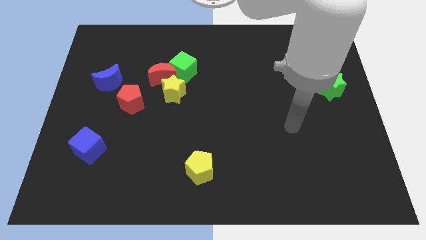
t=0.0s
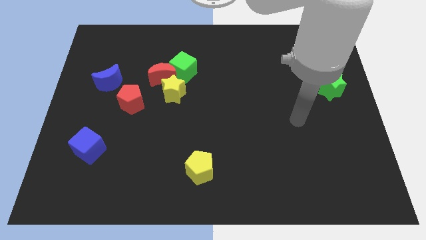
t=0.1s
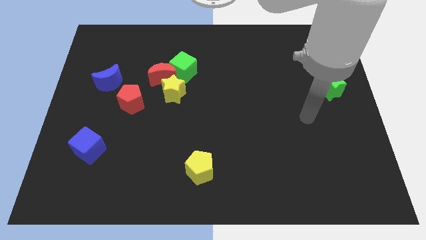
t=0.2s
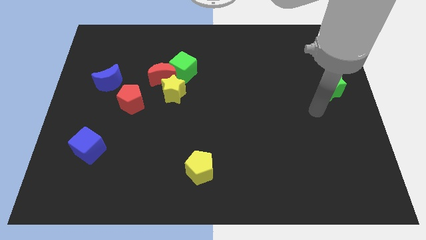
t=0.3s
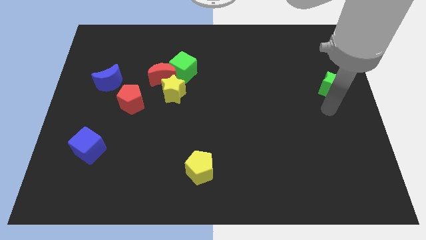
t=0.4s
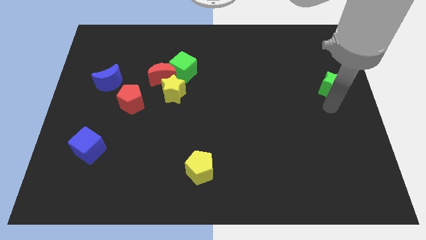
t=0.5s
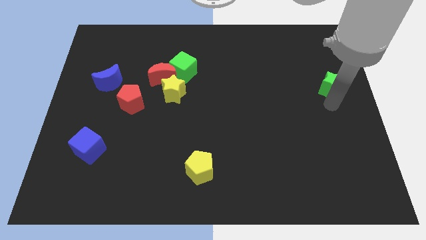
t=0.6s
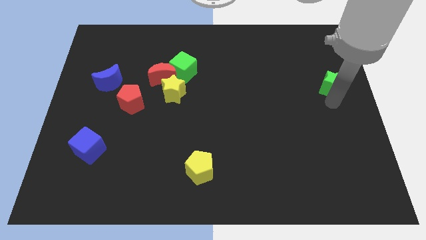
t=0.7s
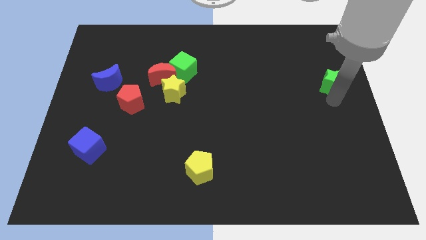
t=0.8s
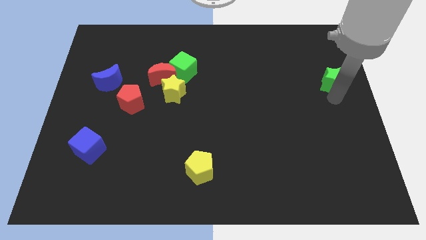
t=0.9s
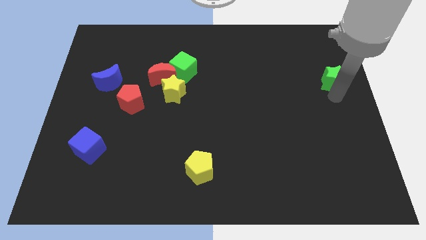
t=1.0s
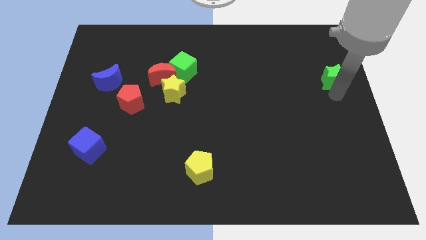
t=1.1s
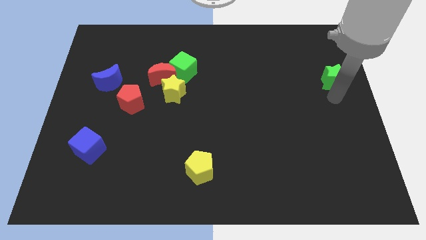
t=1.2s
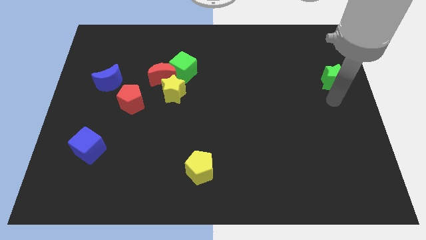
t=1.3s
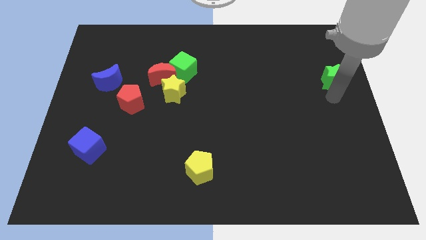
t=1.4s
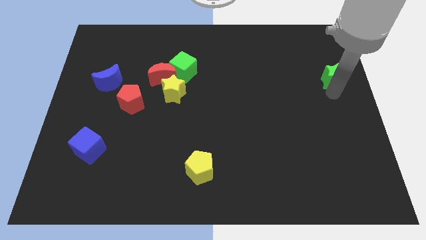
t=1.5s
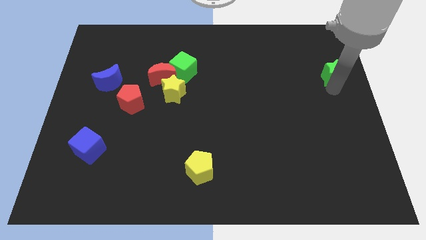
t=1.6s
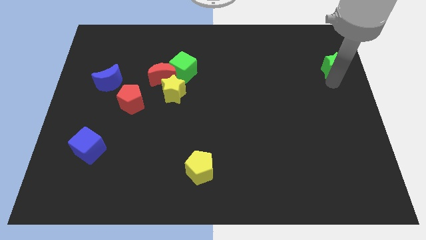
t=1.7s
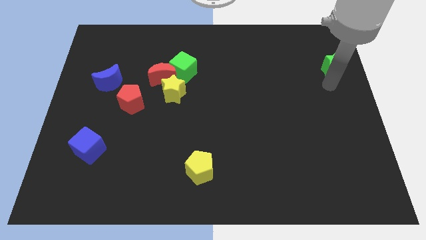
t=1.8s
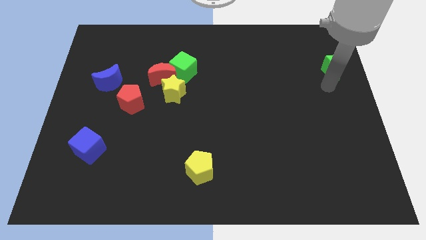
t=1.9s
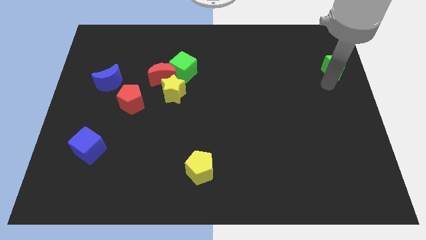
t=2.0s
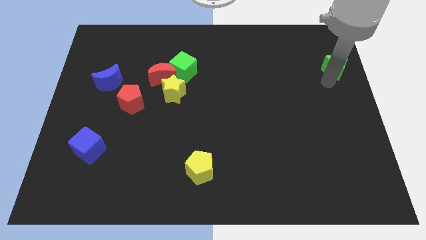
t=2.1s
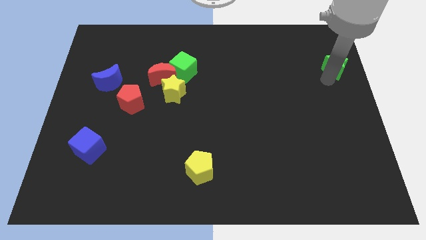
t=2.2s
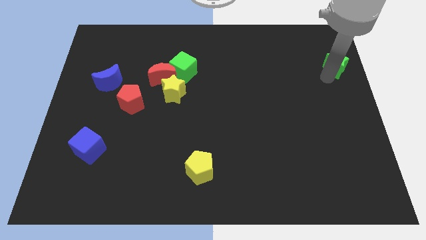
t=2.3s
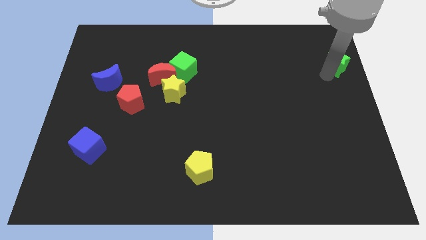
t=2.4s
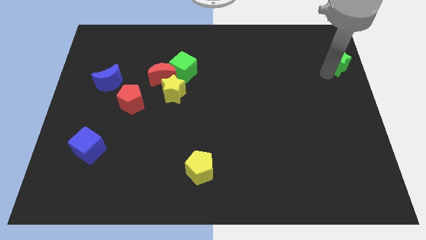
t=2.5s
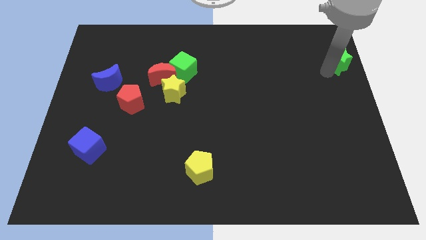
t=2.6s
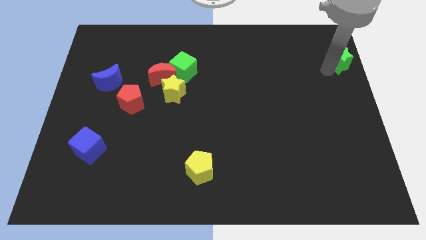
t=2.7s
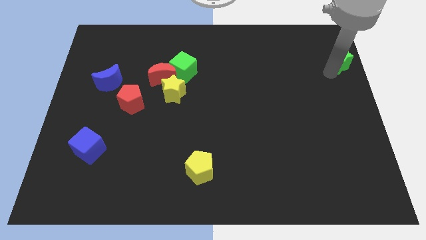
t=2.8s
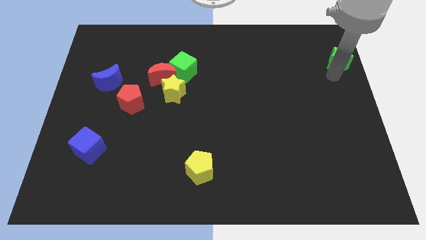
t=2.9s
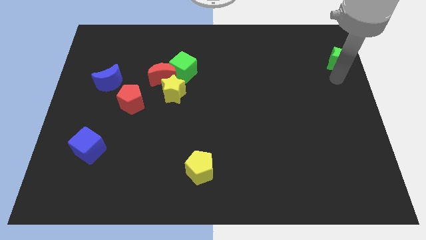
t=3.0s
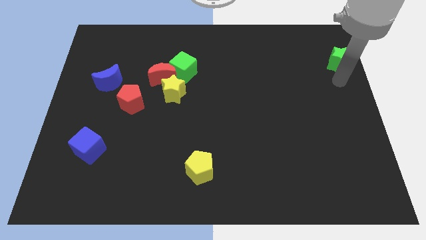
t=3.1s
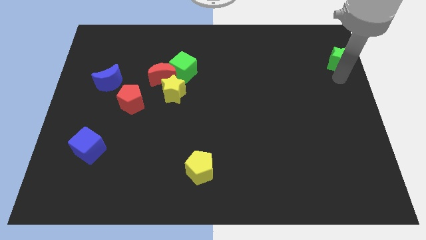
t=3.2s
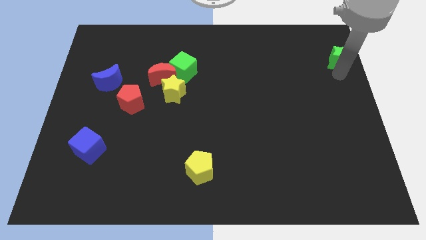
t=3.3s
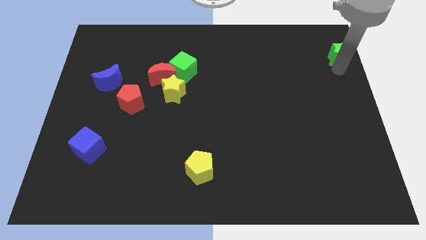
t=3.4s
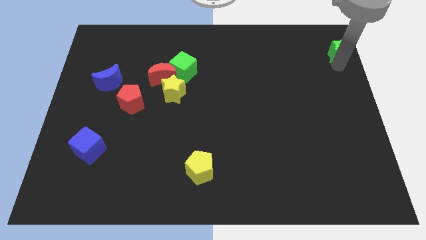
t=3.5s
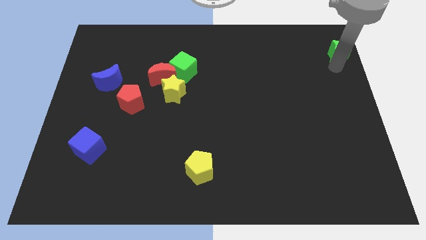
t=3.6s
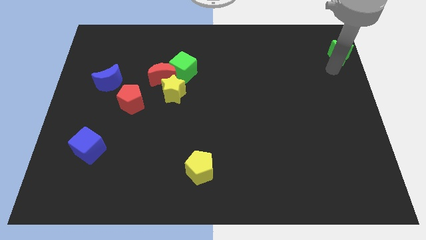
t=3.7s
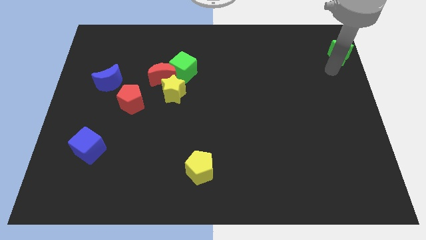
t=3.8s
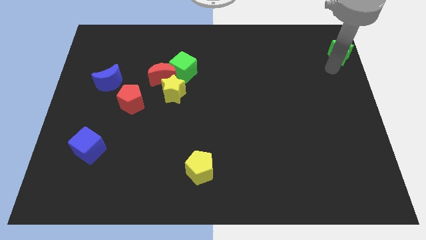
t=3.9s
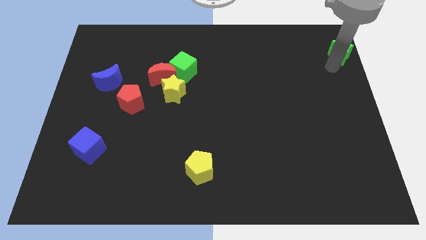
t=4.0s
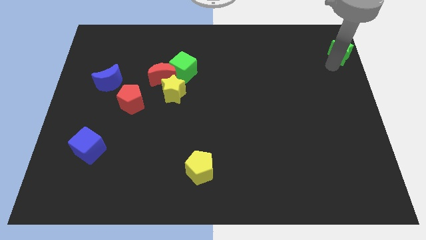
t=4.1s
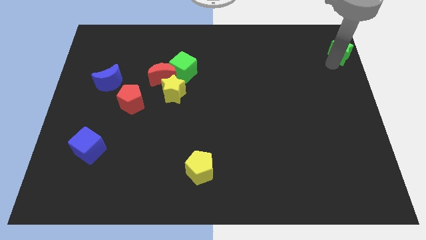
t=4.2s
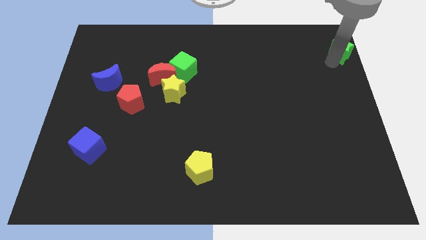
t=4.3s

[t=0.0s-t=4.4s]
move the green star to the top right corner

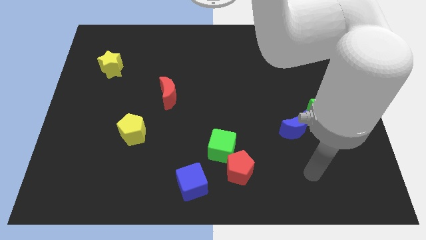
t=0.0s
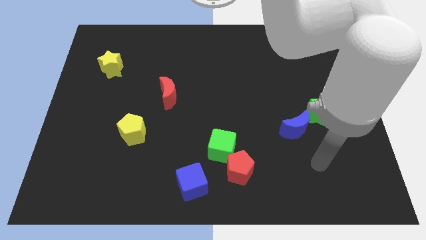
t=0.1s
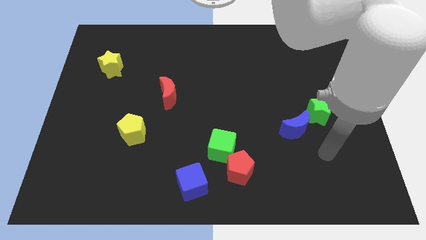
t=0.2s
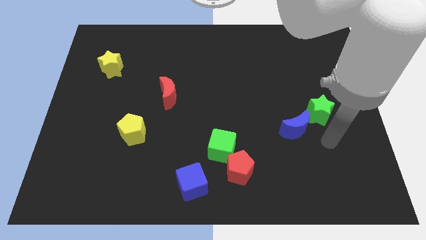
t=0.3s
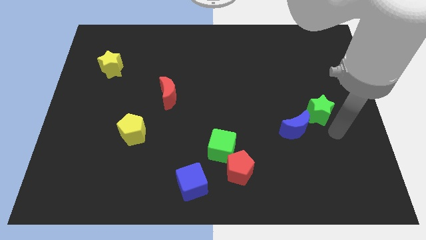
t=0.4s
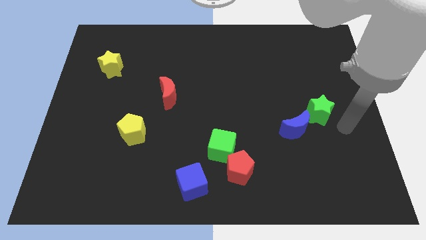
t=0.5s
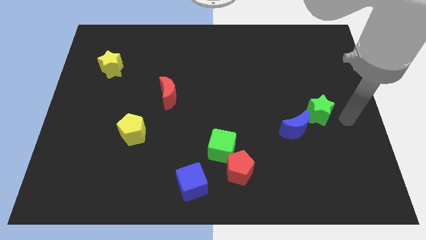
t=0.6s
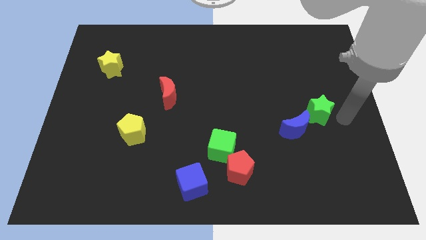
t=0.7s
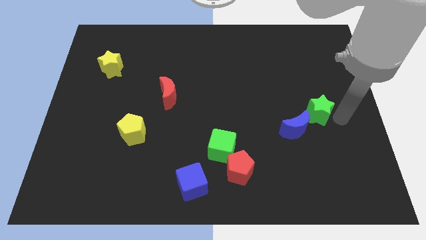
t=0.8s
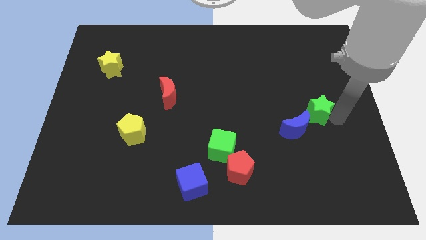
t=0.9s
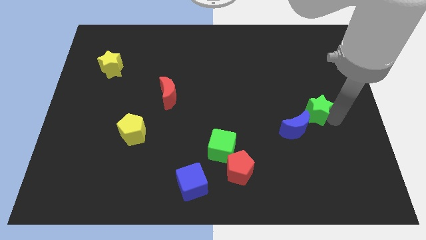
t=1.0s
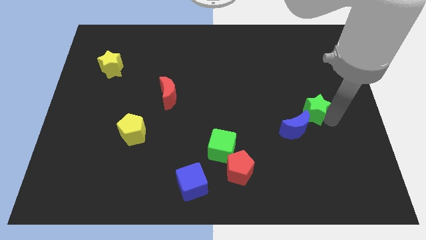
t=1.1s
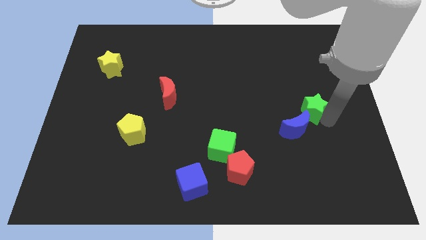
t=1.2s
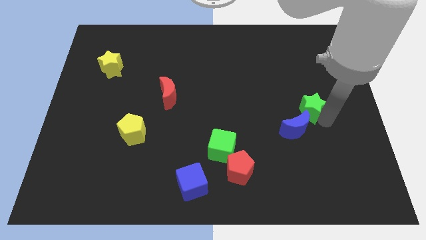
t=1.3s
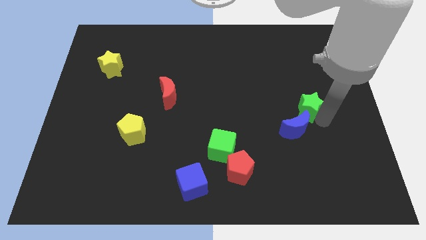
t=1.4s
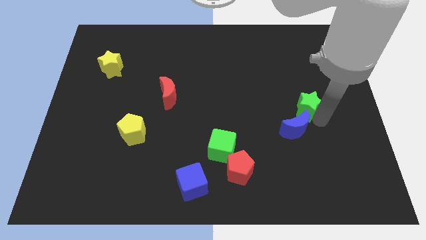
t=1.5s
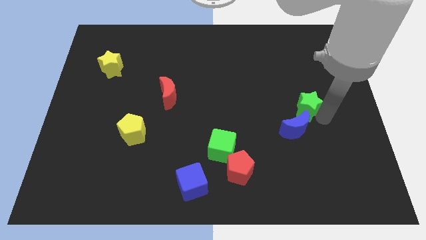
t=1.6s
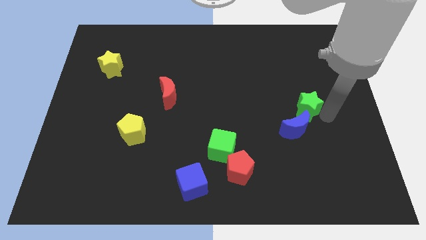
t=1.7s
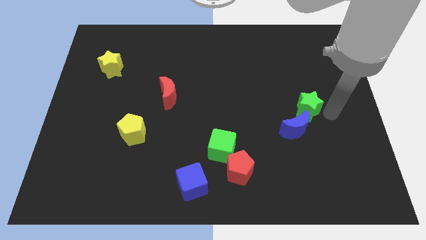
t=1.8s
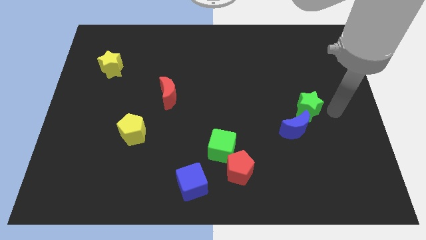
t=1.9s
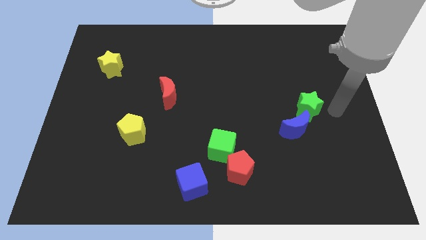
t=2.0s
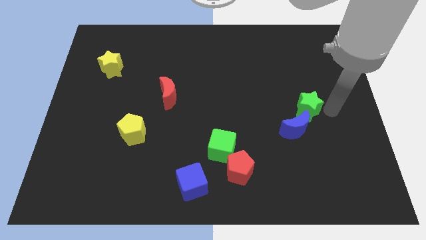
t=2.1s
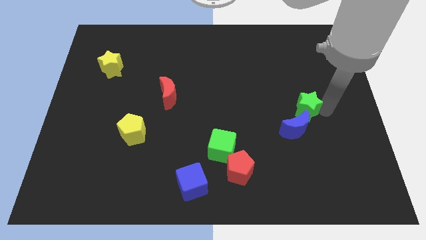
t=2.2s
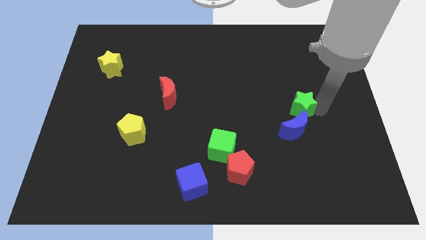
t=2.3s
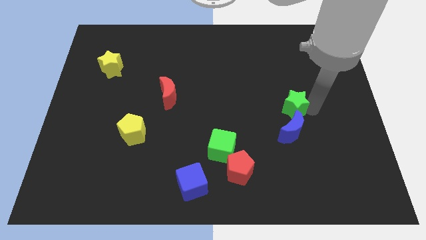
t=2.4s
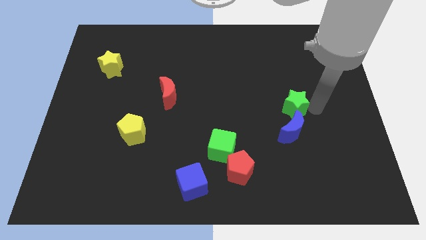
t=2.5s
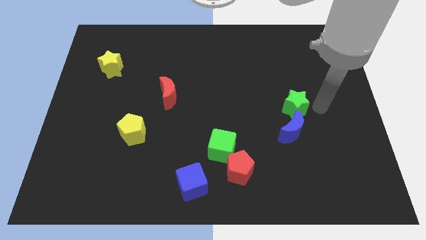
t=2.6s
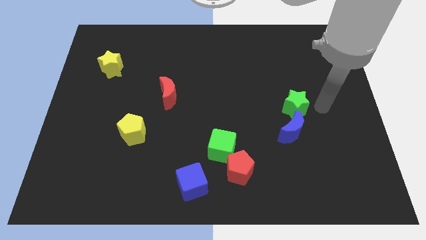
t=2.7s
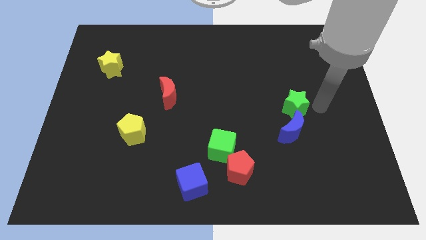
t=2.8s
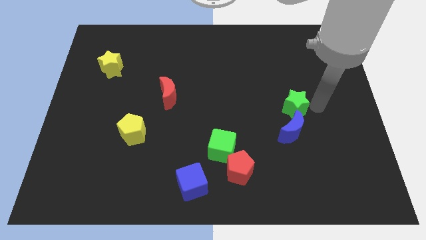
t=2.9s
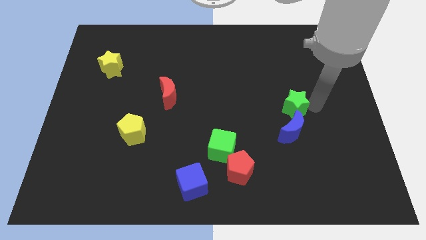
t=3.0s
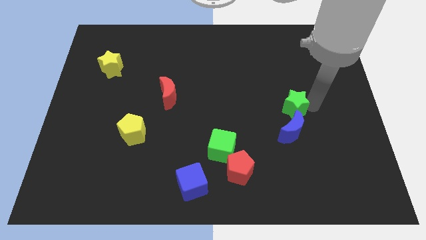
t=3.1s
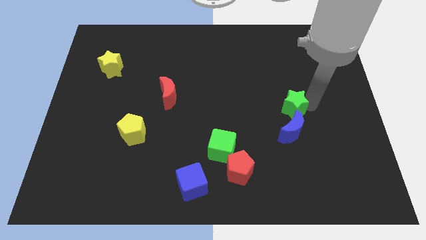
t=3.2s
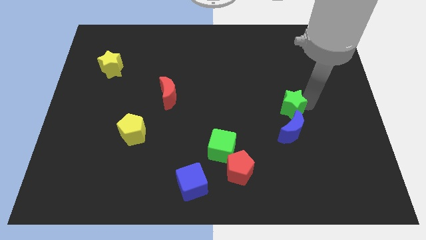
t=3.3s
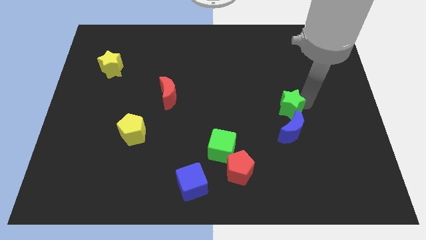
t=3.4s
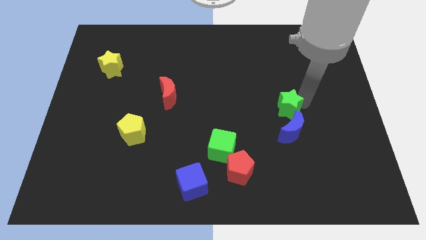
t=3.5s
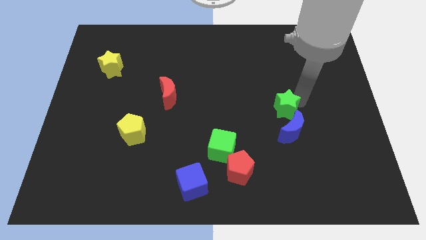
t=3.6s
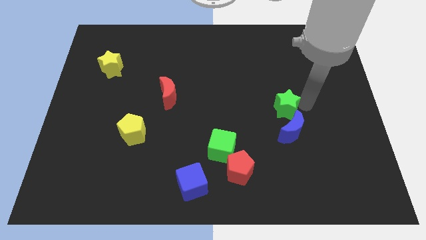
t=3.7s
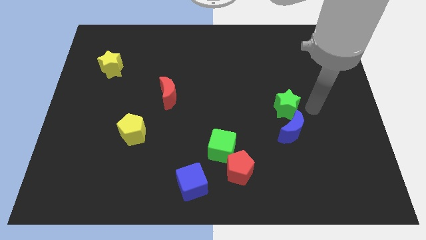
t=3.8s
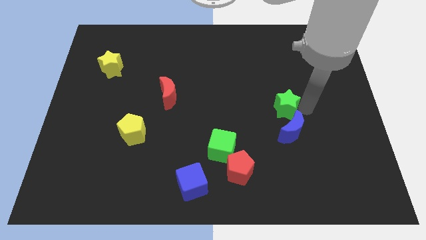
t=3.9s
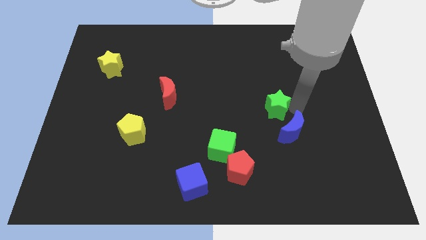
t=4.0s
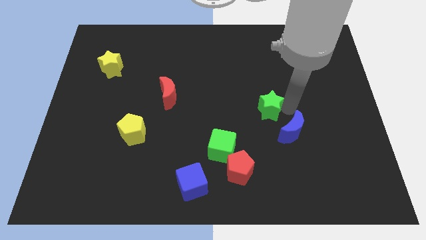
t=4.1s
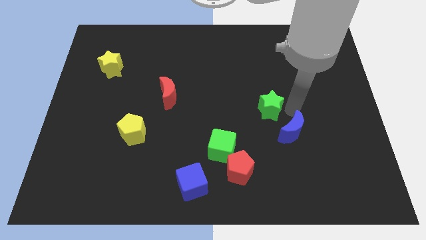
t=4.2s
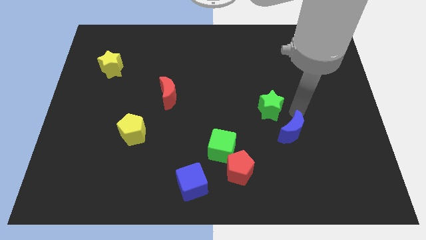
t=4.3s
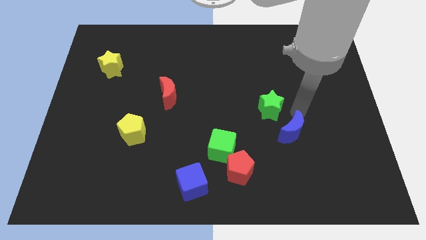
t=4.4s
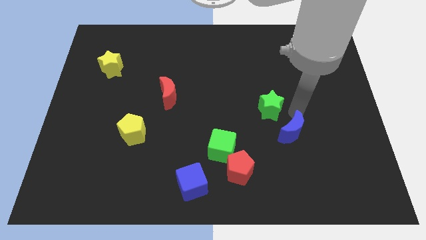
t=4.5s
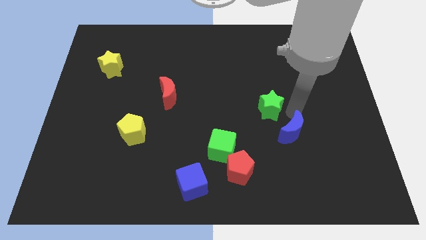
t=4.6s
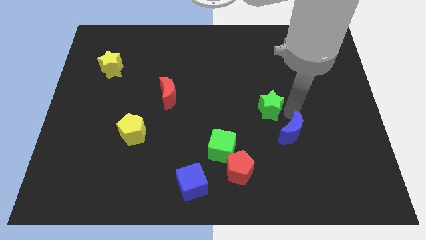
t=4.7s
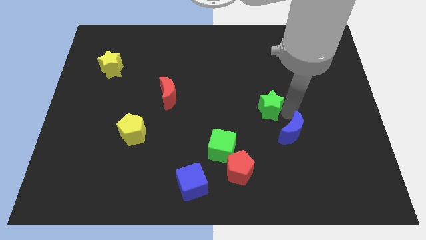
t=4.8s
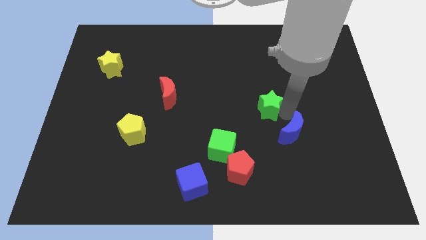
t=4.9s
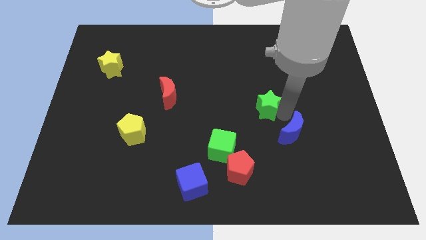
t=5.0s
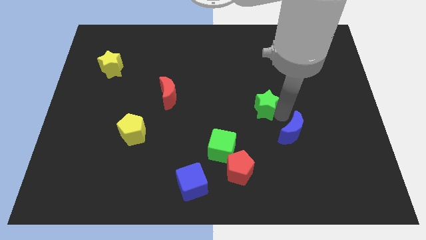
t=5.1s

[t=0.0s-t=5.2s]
put the green star to the middle of the board
